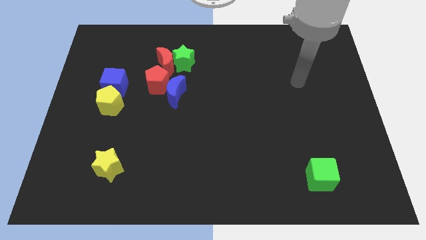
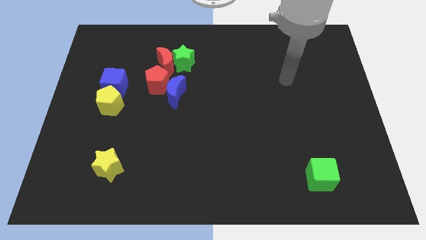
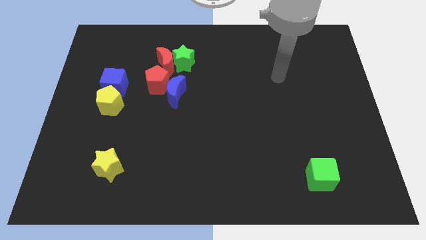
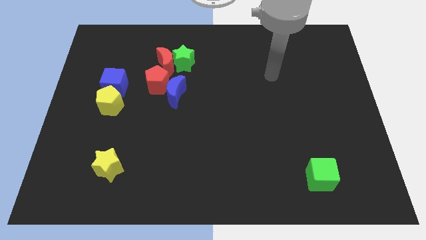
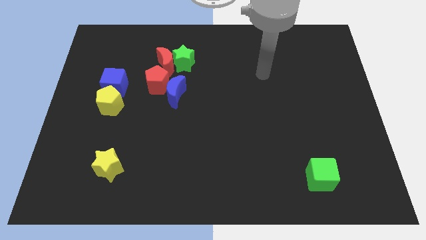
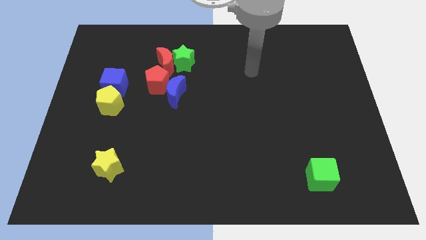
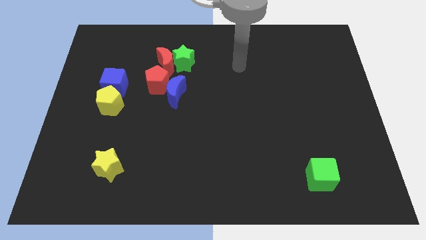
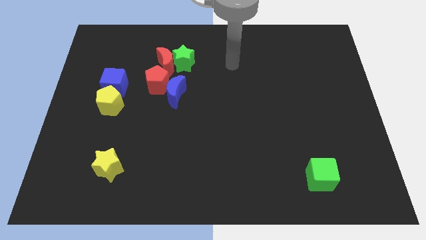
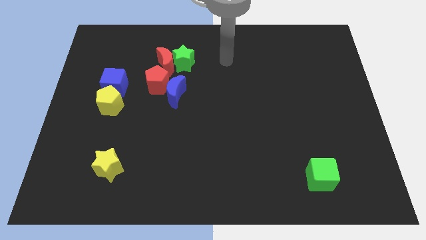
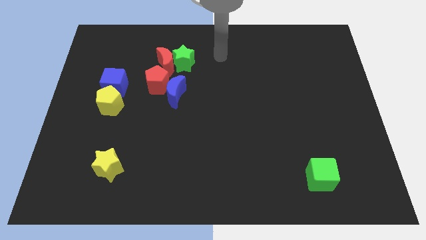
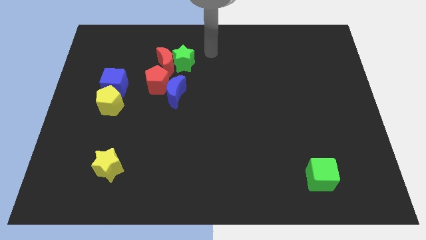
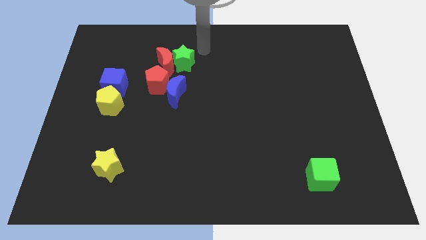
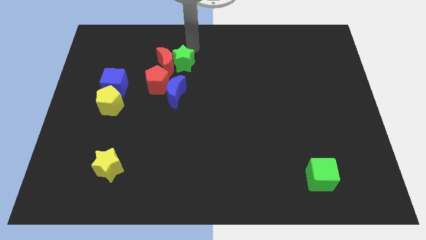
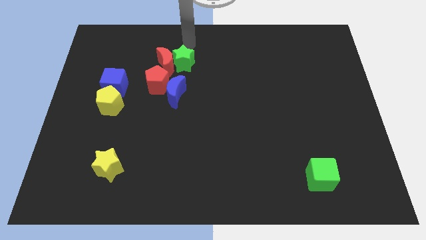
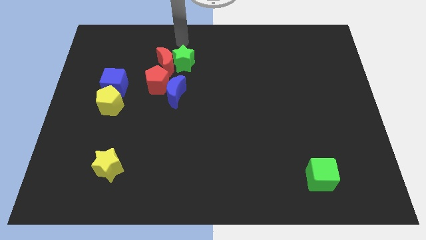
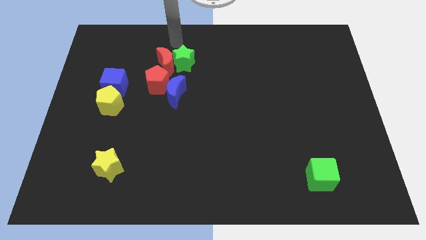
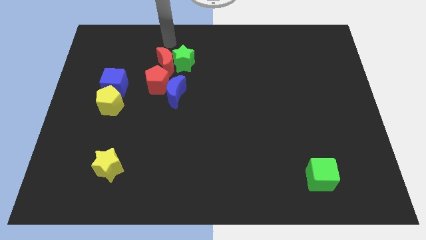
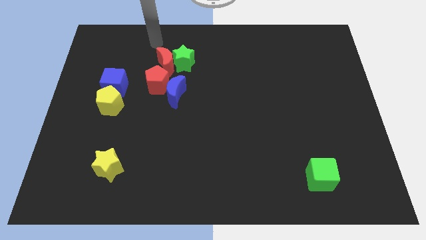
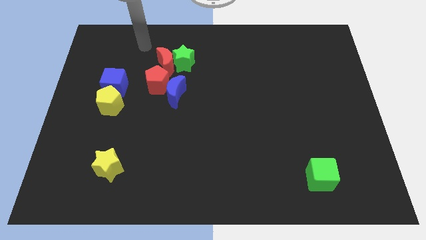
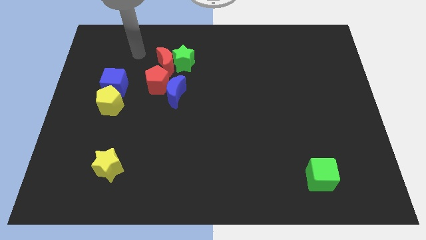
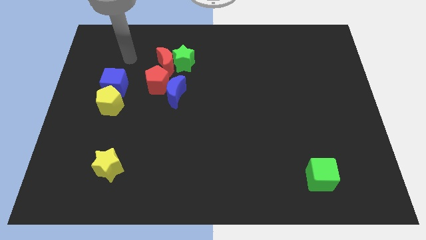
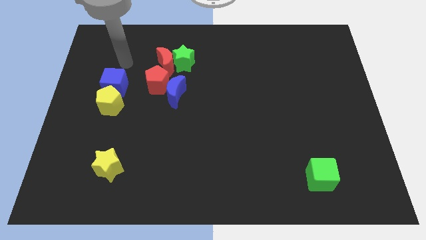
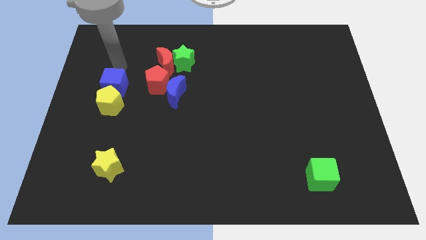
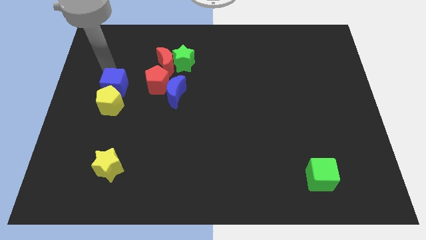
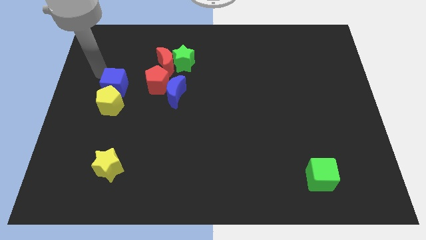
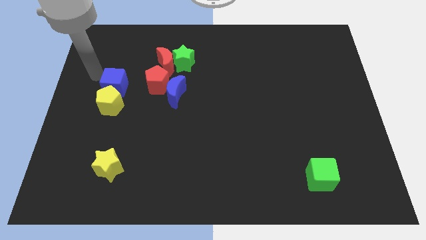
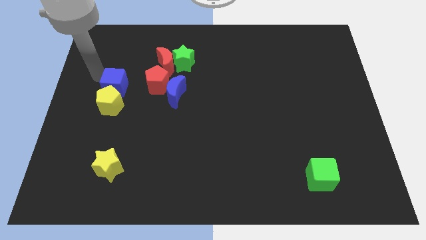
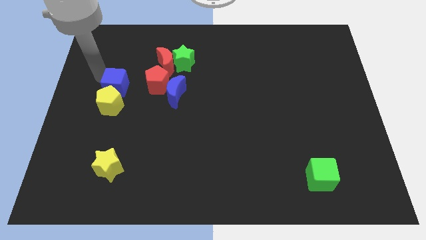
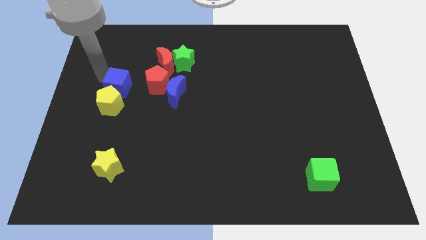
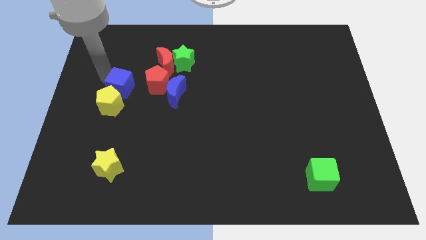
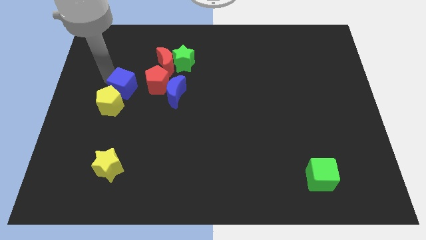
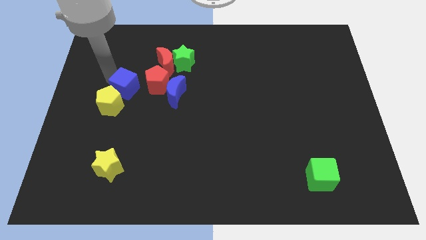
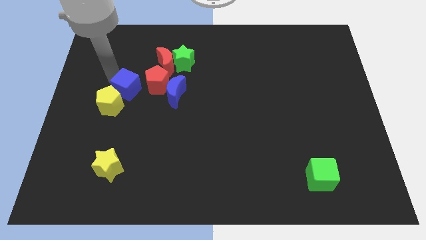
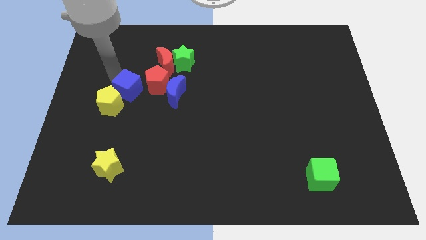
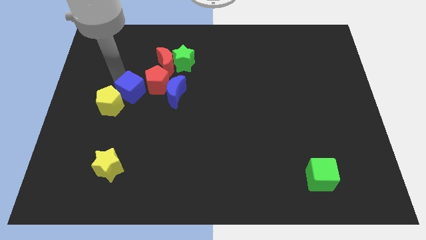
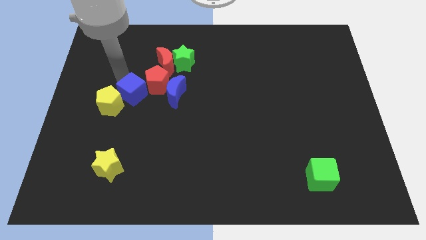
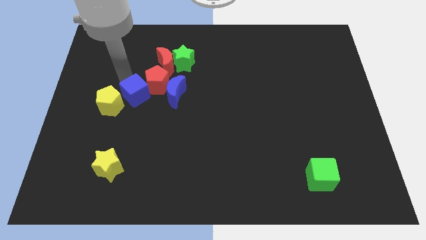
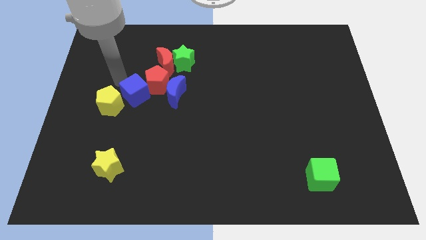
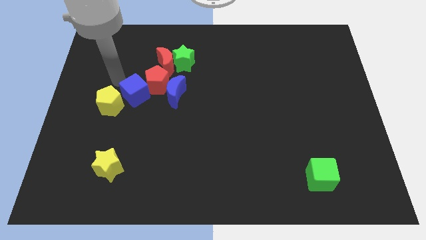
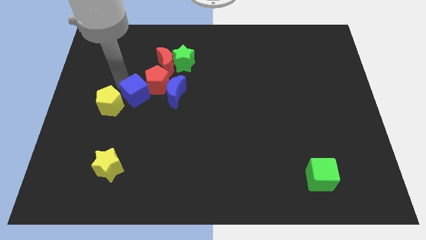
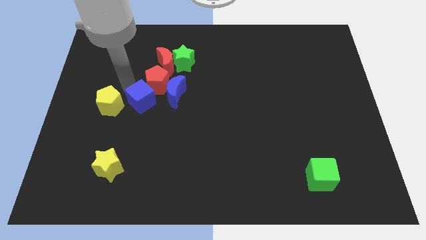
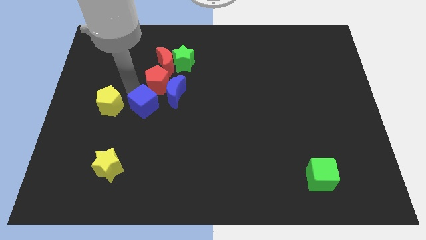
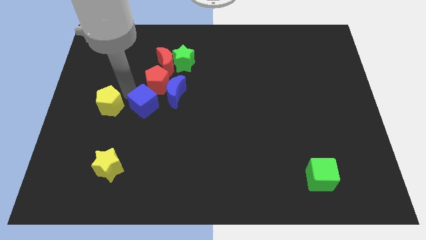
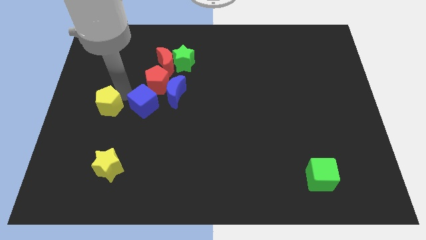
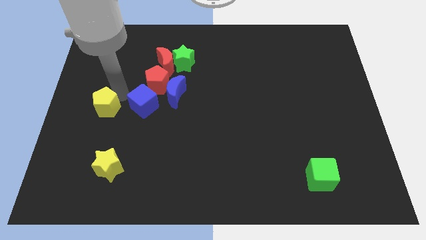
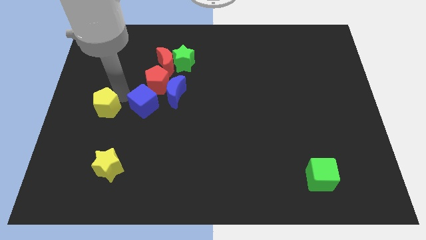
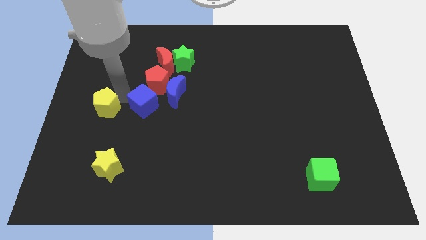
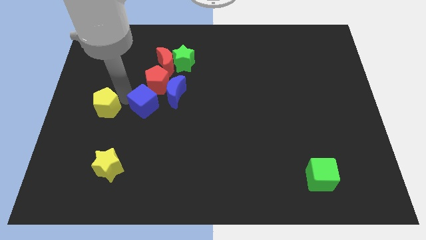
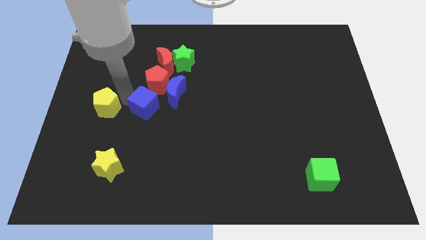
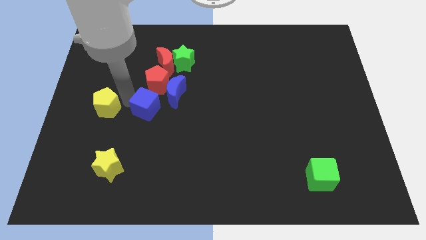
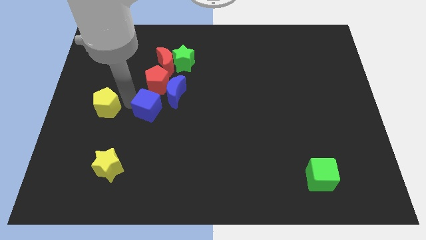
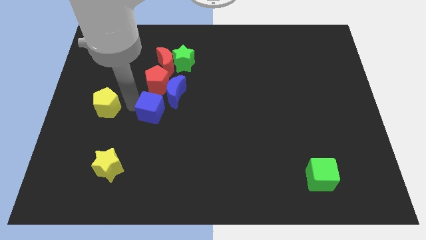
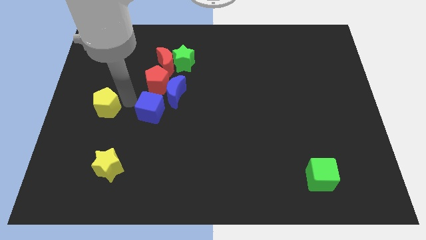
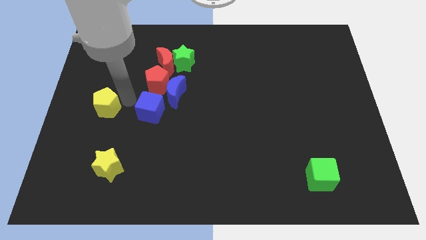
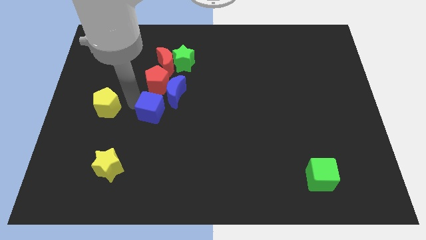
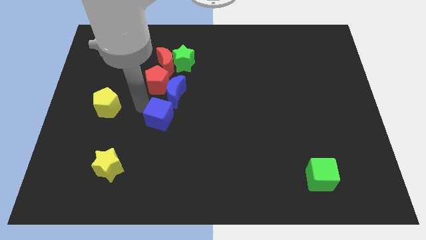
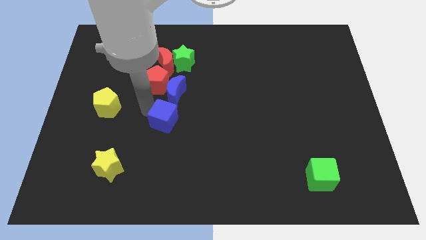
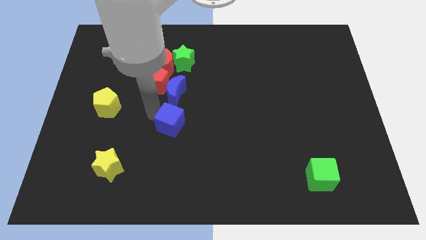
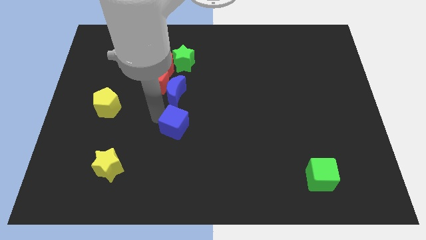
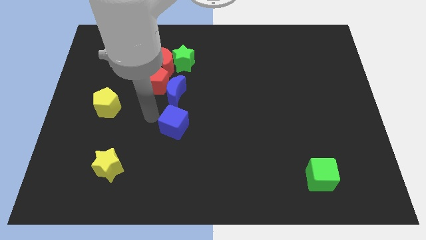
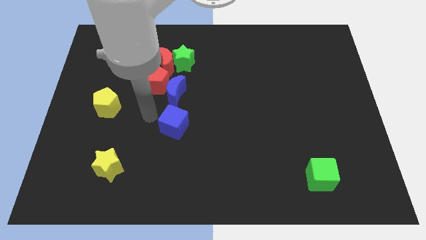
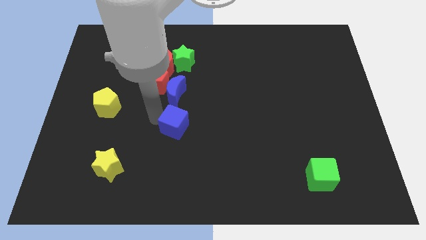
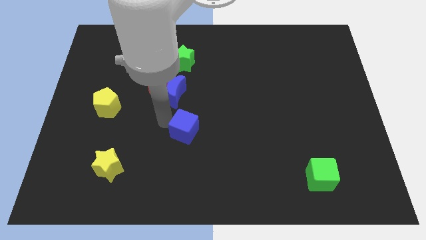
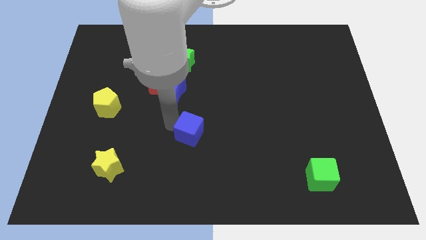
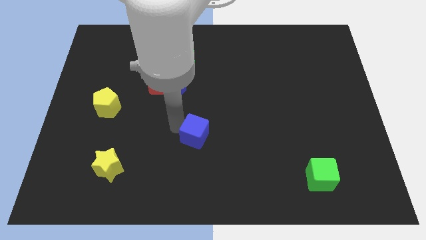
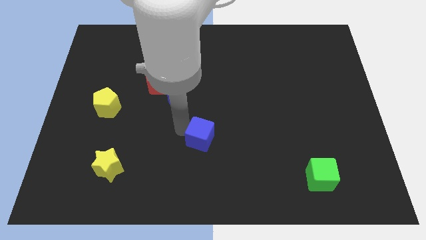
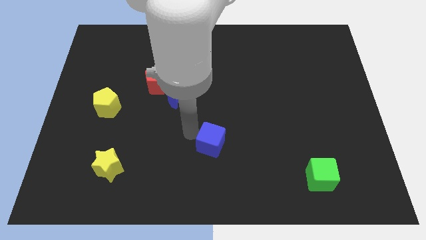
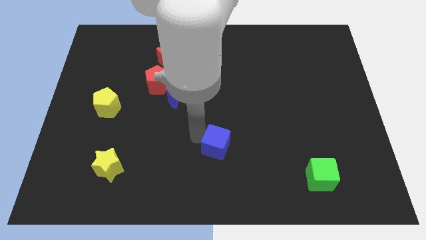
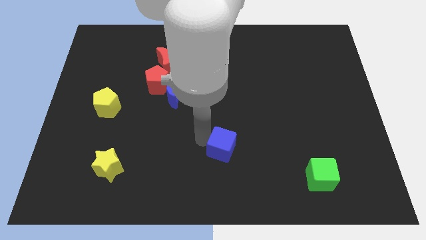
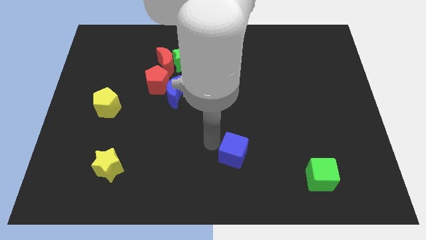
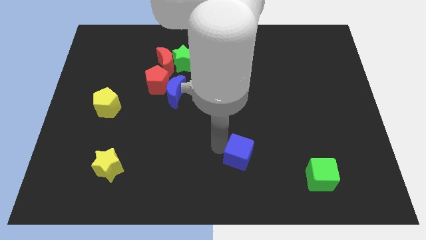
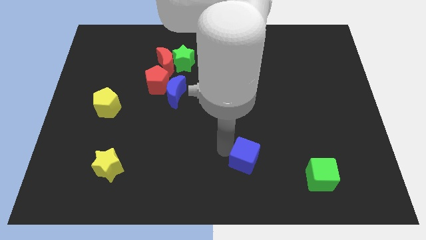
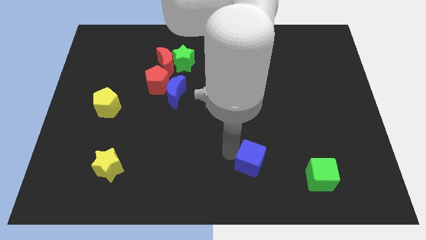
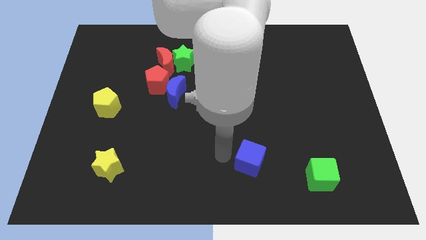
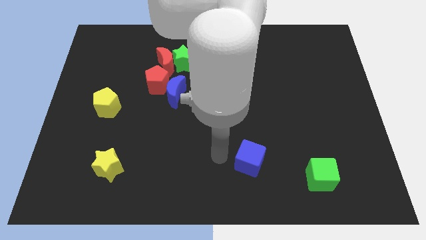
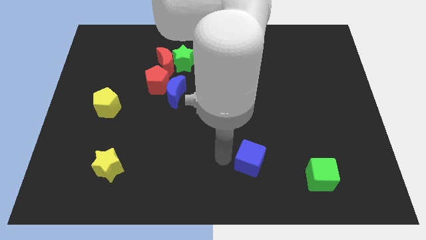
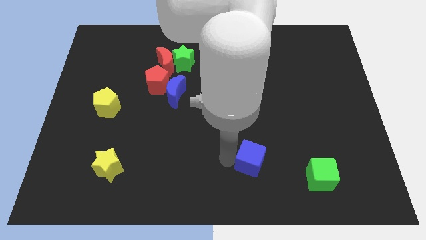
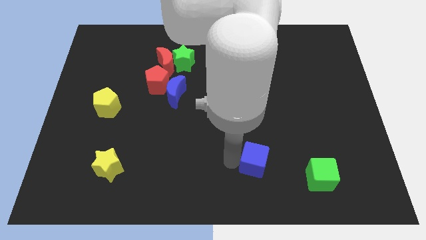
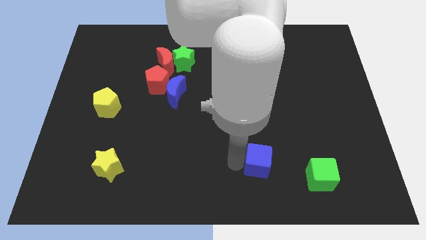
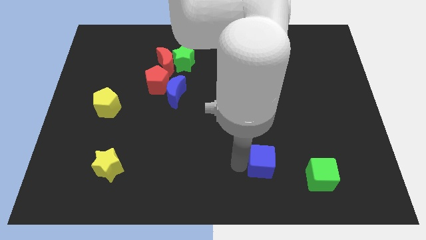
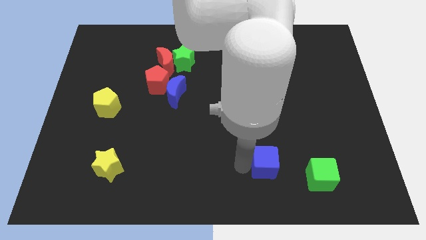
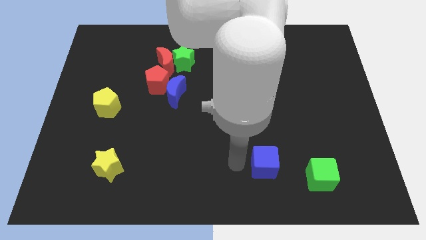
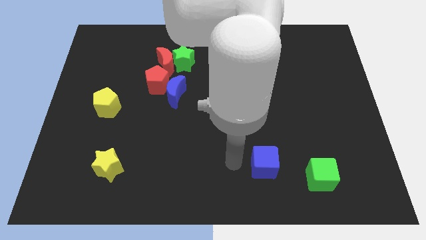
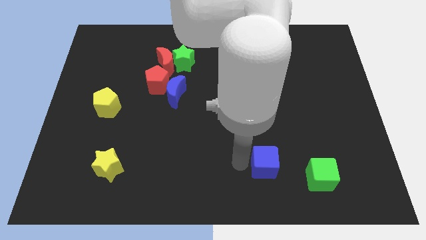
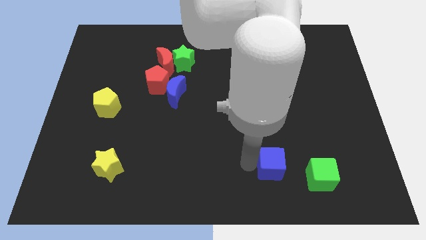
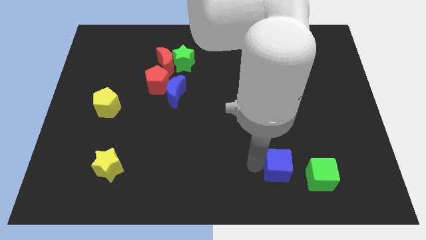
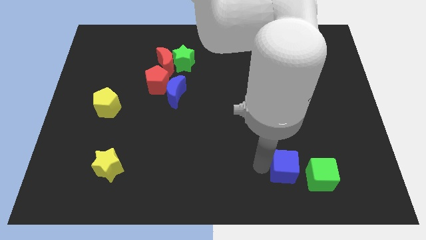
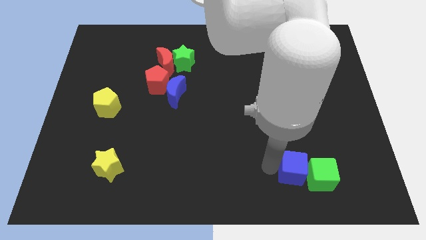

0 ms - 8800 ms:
move the blue cube to the green cube
